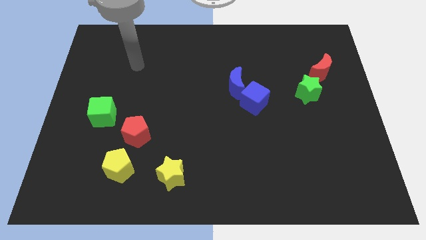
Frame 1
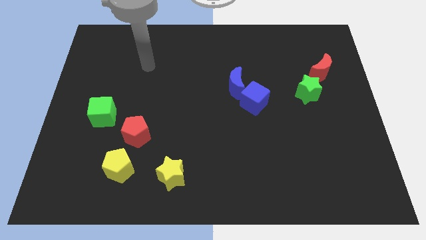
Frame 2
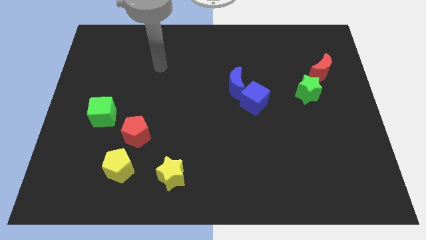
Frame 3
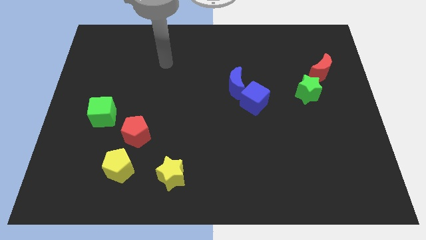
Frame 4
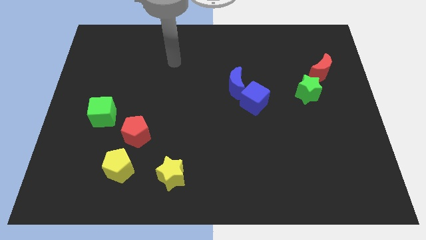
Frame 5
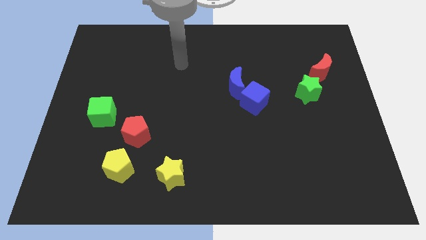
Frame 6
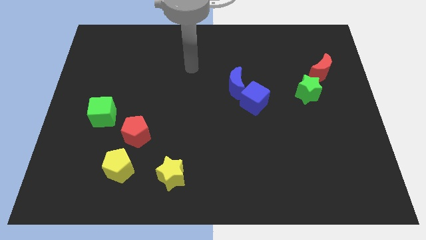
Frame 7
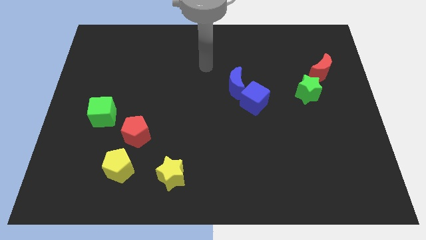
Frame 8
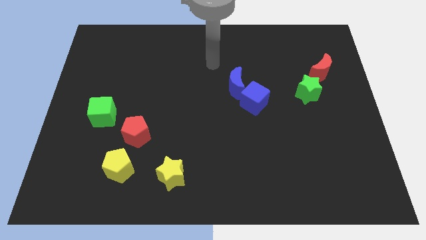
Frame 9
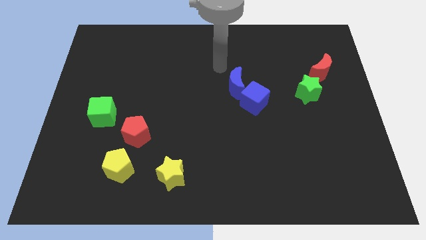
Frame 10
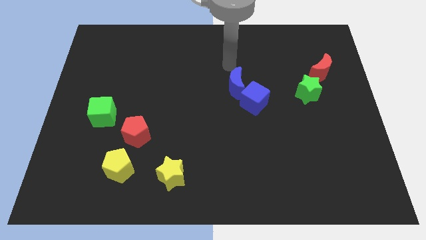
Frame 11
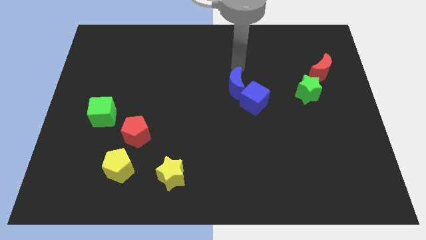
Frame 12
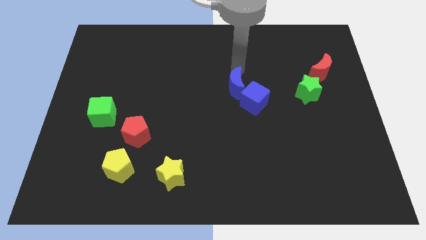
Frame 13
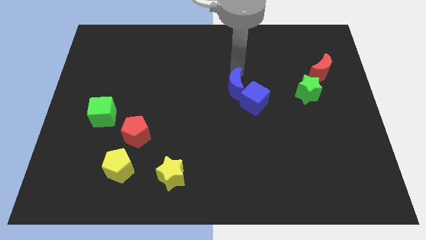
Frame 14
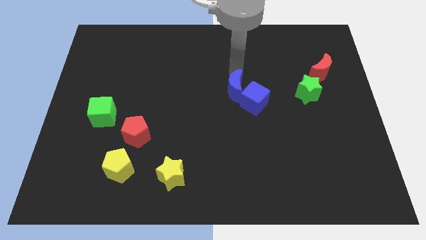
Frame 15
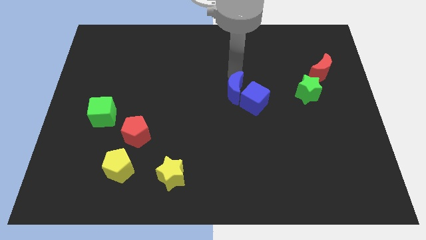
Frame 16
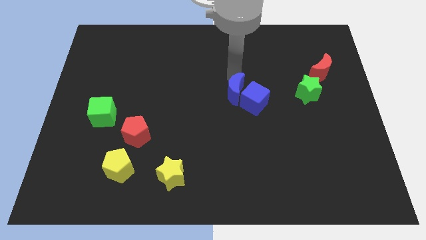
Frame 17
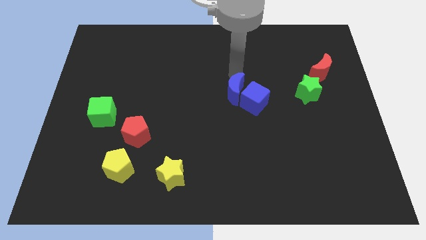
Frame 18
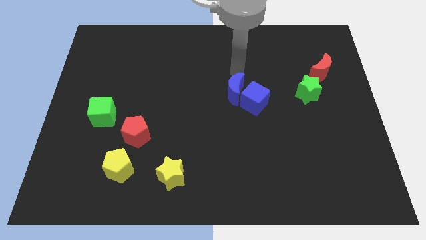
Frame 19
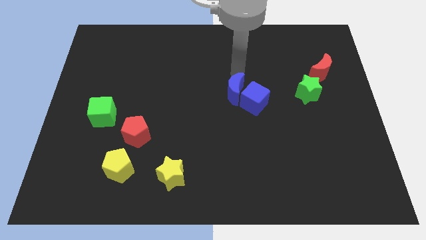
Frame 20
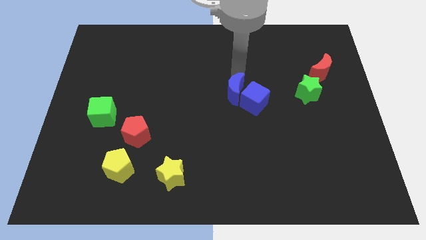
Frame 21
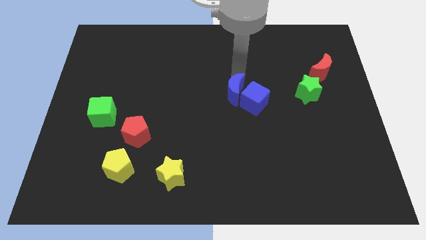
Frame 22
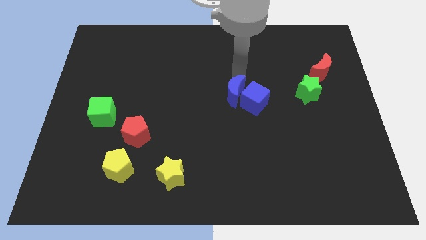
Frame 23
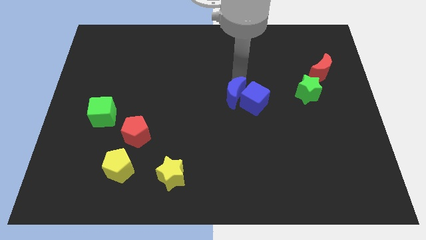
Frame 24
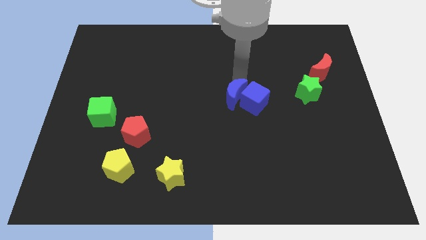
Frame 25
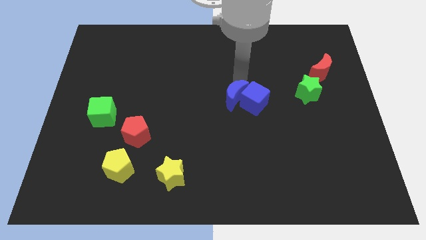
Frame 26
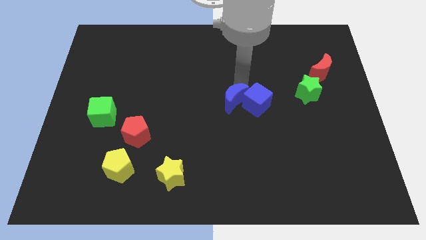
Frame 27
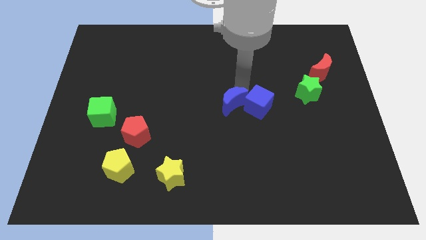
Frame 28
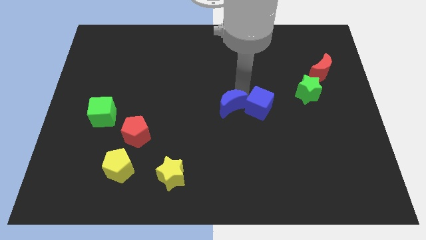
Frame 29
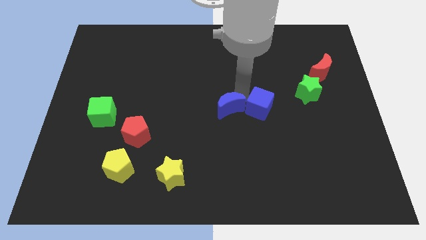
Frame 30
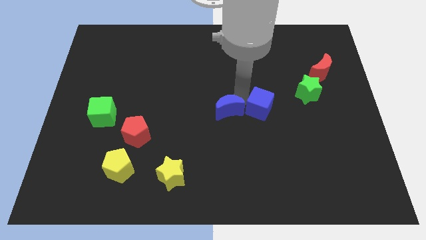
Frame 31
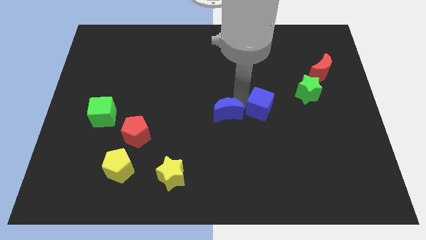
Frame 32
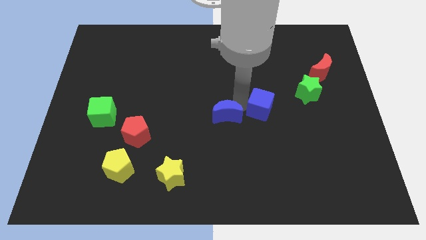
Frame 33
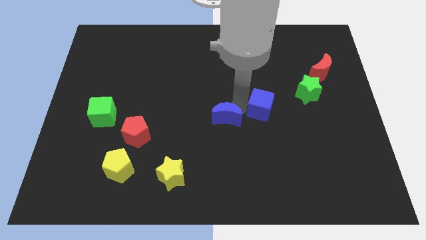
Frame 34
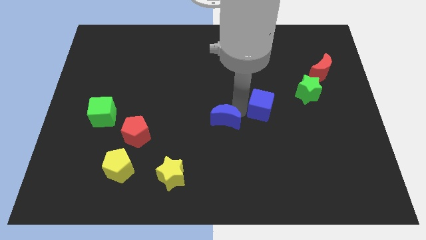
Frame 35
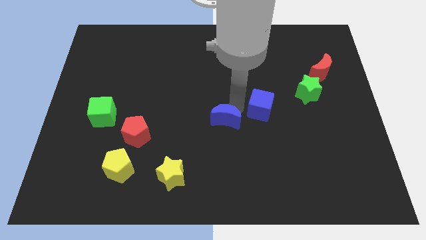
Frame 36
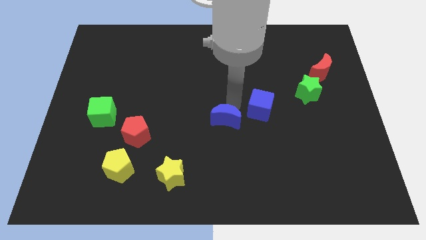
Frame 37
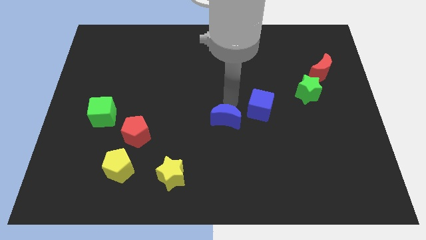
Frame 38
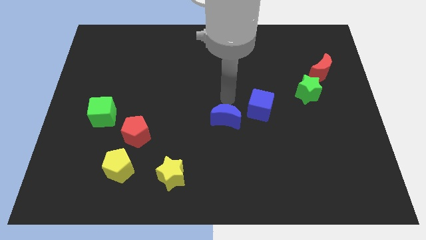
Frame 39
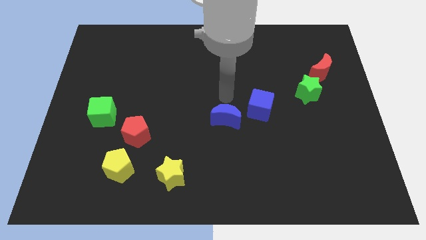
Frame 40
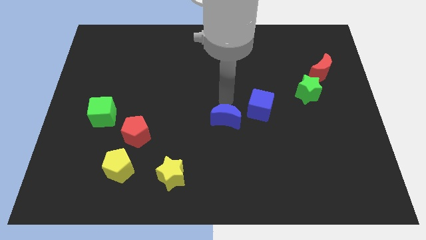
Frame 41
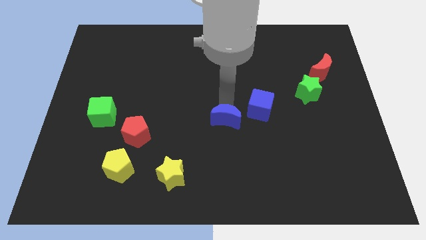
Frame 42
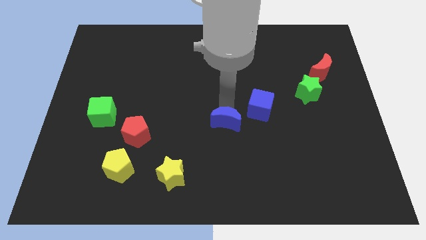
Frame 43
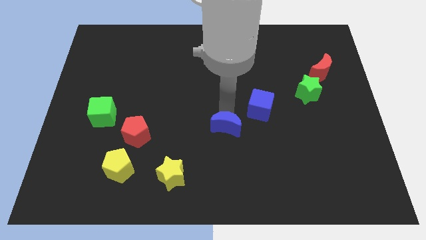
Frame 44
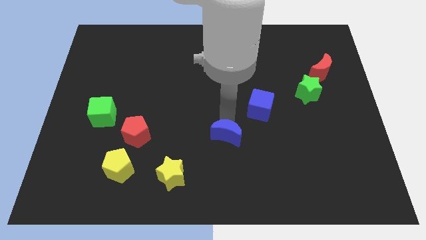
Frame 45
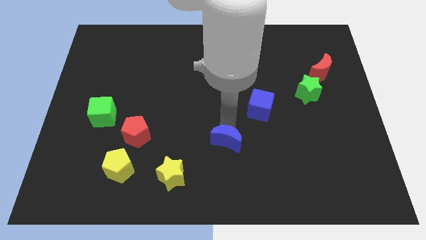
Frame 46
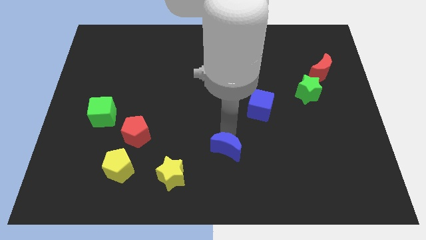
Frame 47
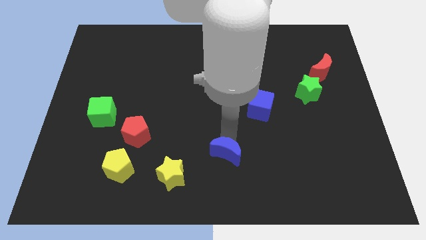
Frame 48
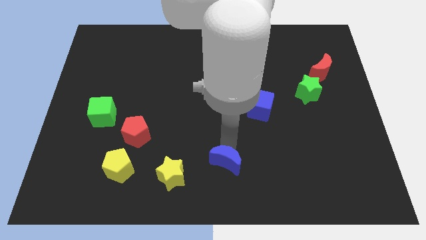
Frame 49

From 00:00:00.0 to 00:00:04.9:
put the blue moon to the bottom
